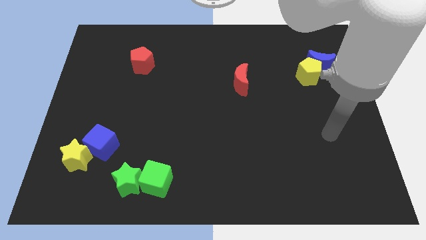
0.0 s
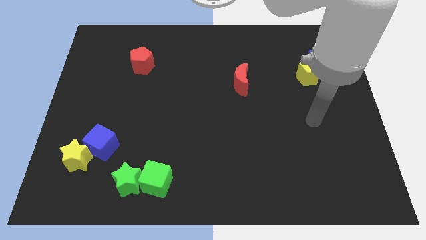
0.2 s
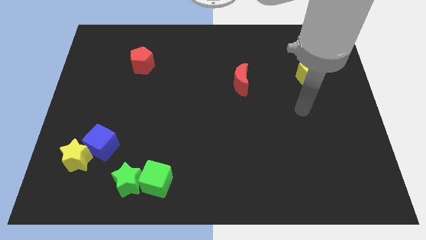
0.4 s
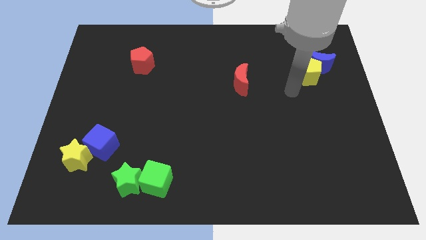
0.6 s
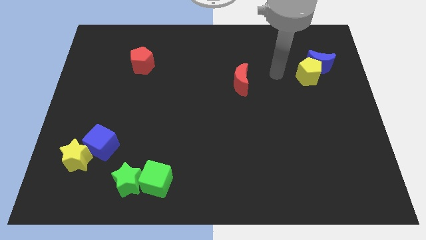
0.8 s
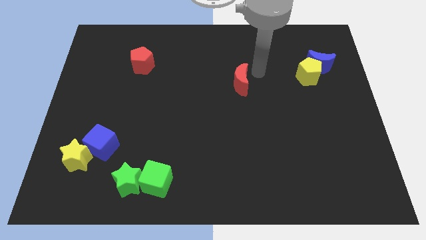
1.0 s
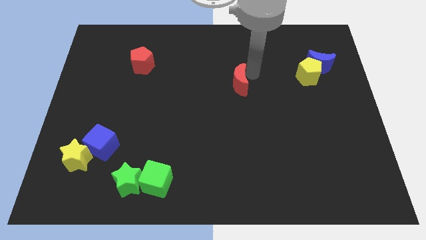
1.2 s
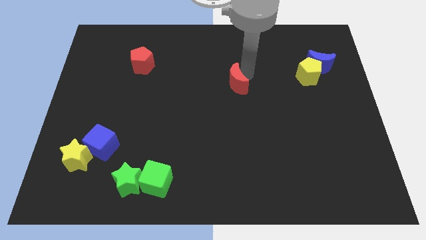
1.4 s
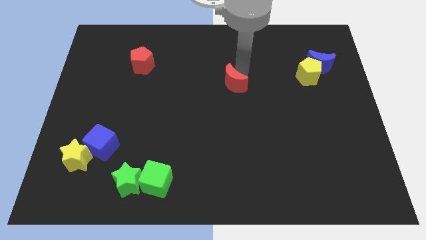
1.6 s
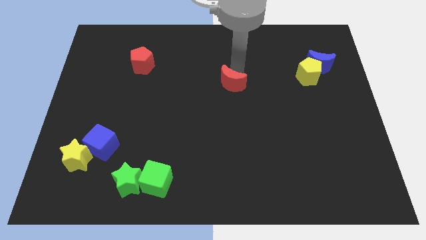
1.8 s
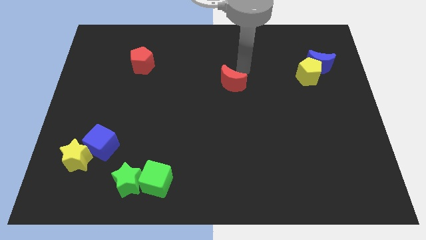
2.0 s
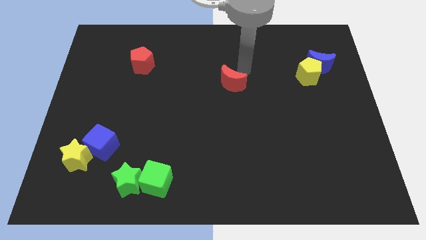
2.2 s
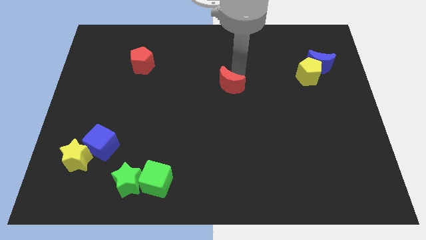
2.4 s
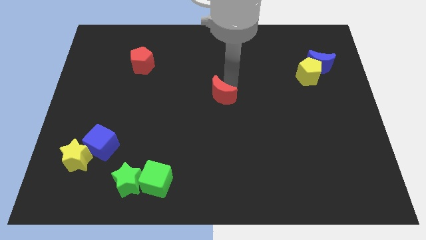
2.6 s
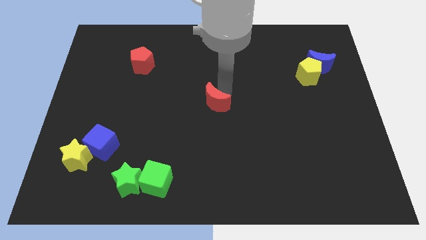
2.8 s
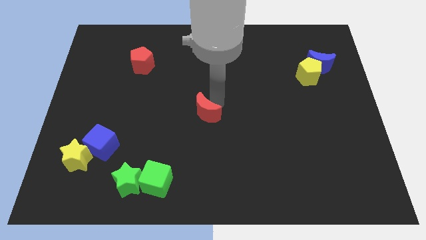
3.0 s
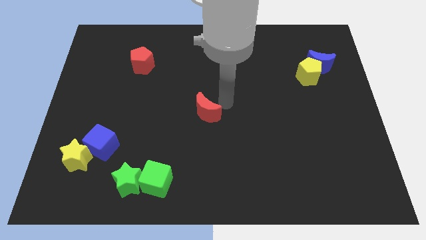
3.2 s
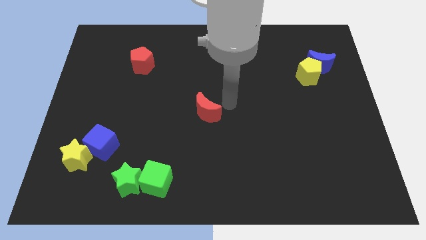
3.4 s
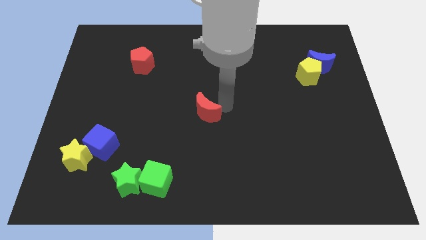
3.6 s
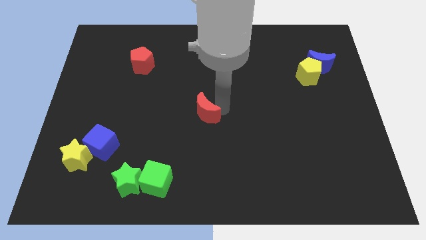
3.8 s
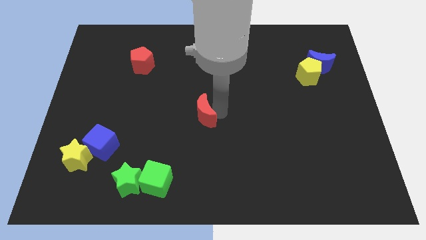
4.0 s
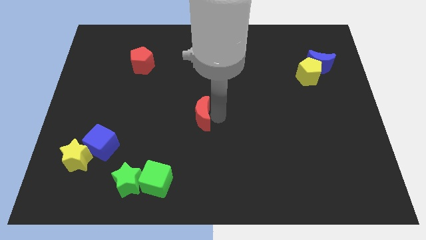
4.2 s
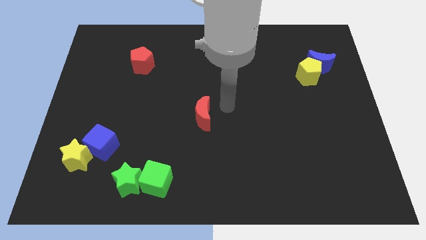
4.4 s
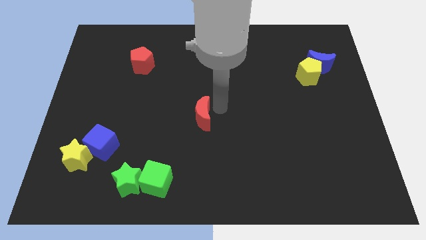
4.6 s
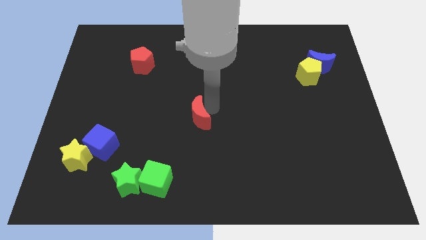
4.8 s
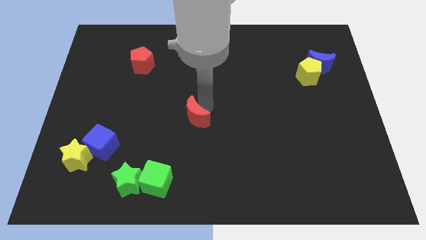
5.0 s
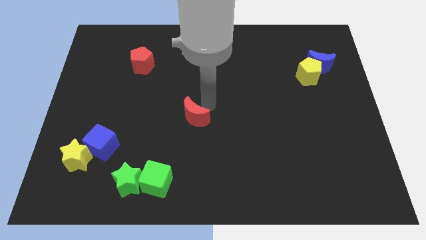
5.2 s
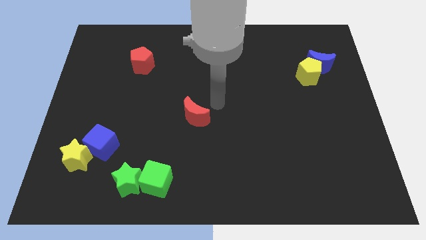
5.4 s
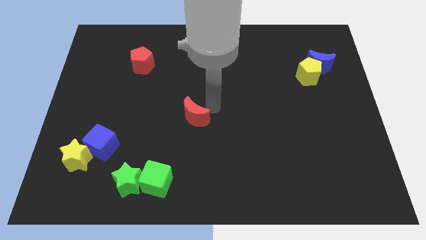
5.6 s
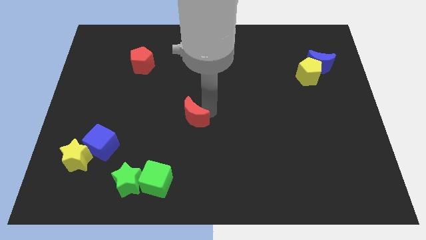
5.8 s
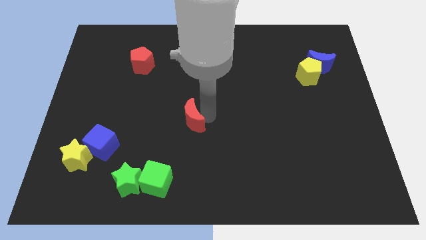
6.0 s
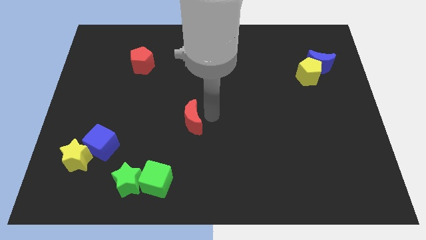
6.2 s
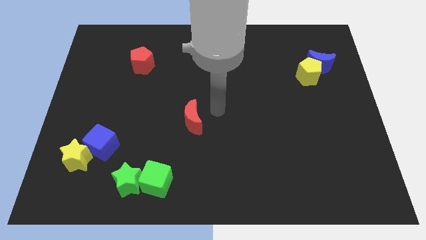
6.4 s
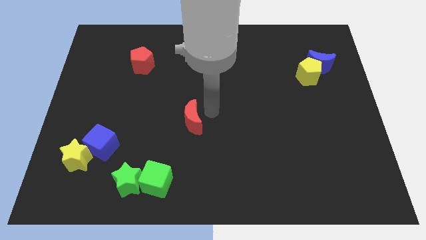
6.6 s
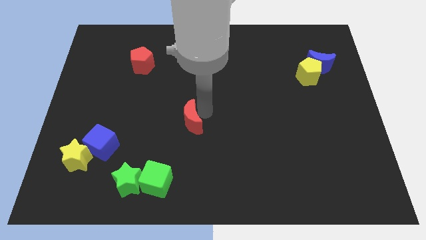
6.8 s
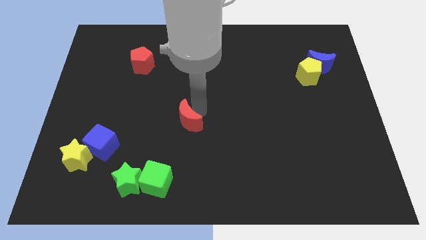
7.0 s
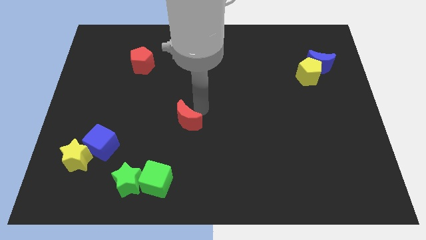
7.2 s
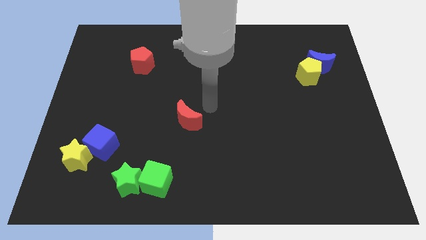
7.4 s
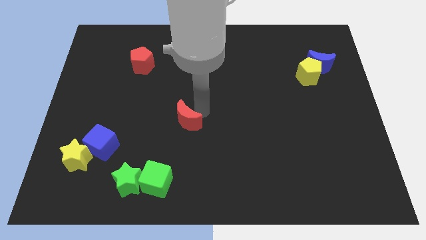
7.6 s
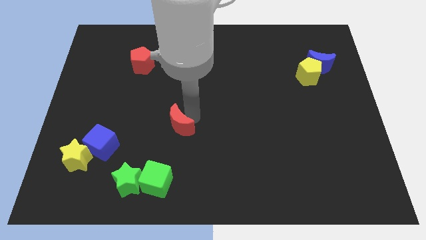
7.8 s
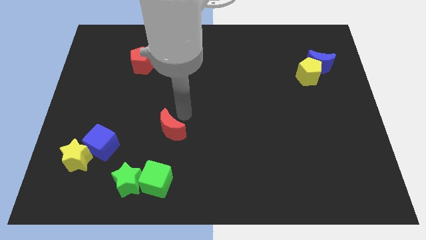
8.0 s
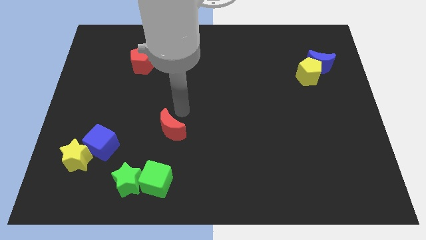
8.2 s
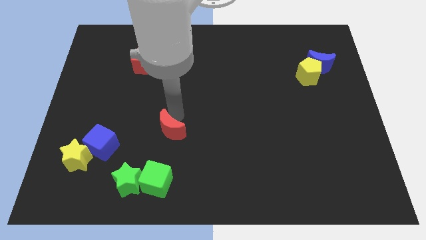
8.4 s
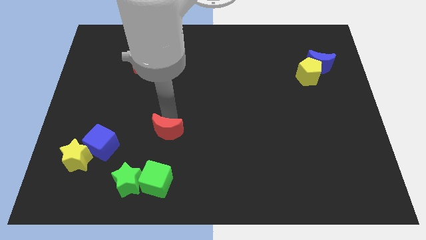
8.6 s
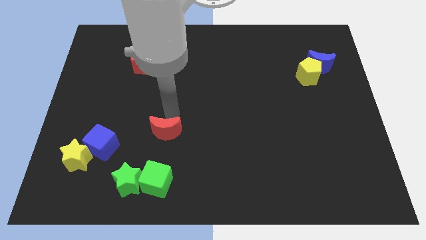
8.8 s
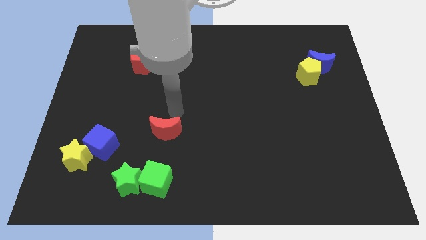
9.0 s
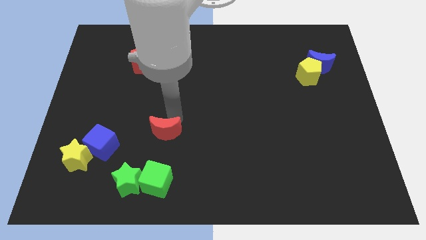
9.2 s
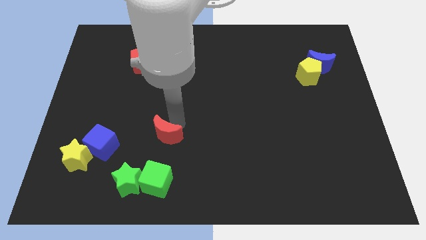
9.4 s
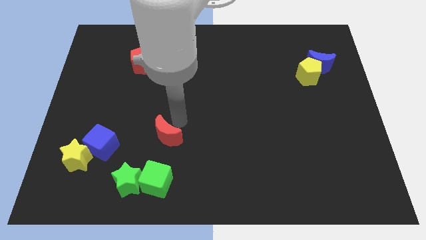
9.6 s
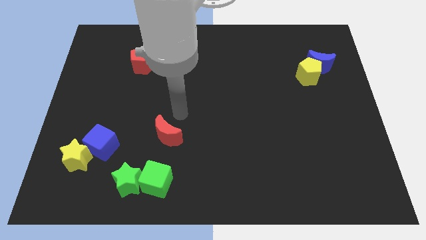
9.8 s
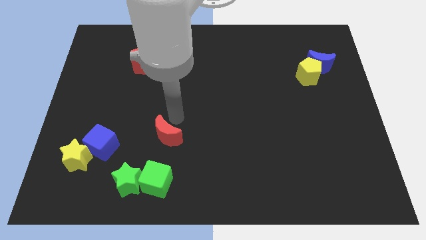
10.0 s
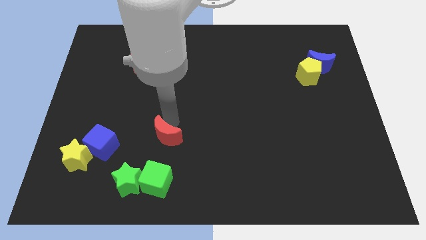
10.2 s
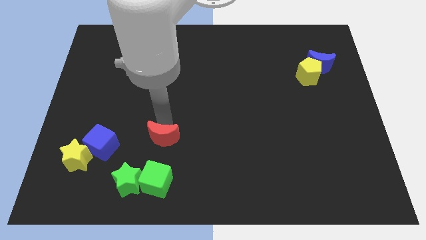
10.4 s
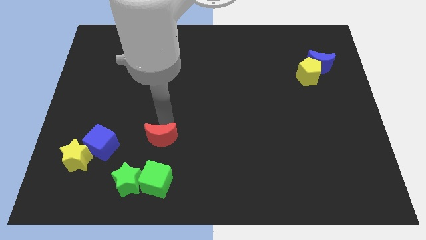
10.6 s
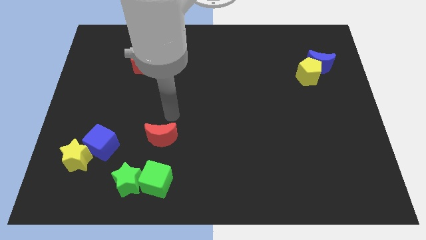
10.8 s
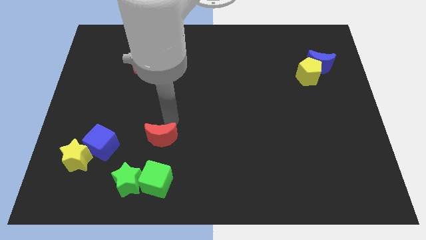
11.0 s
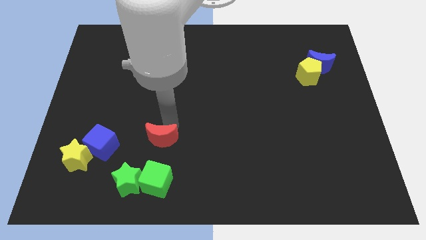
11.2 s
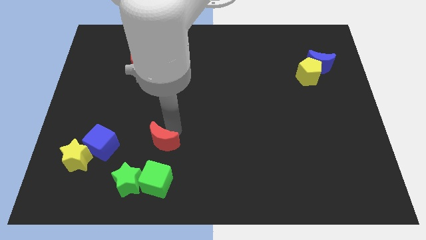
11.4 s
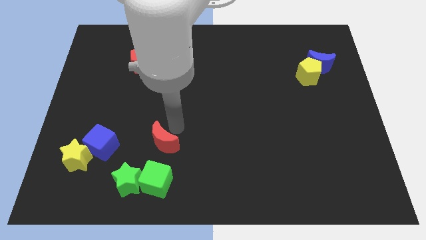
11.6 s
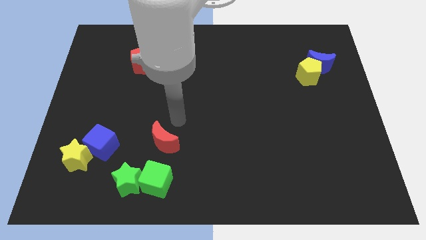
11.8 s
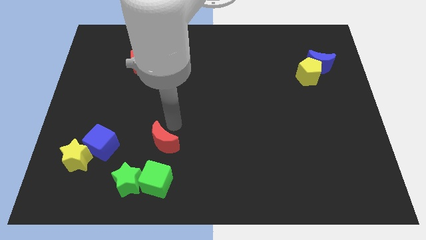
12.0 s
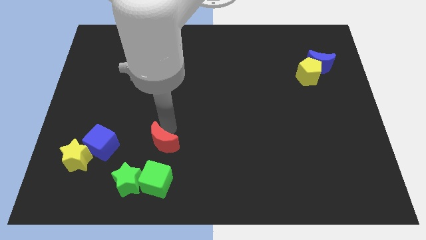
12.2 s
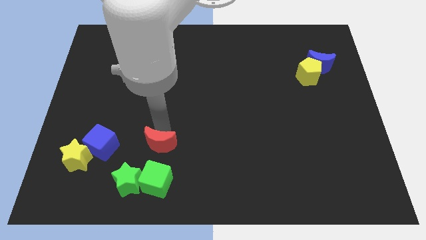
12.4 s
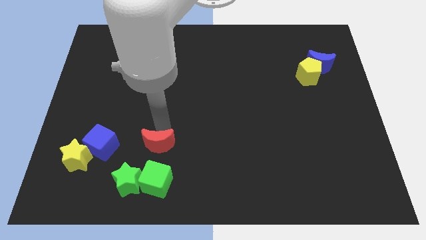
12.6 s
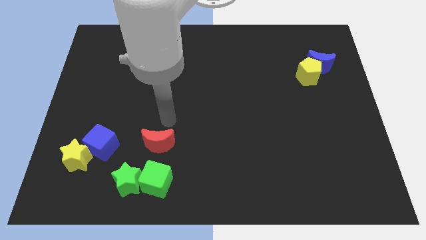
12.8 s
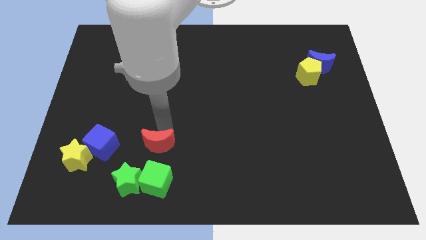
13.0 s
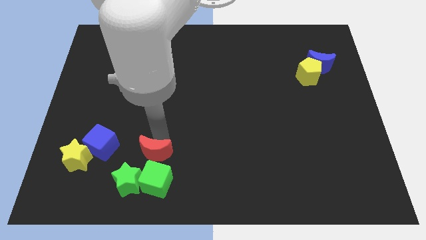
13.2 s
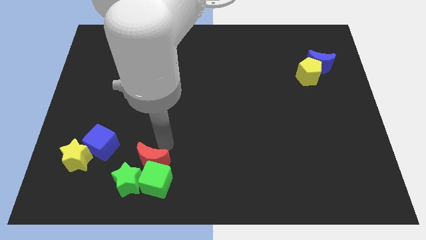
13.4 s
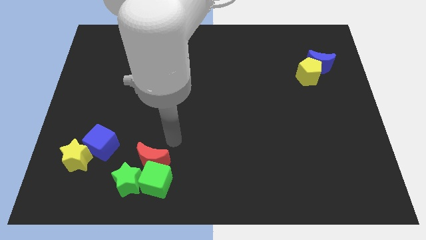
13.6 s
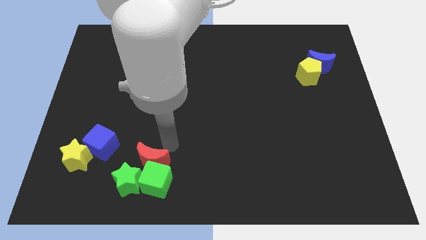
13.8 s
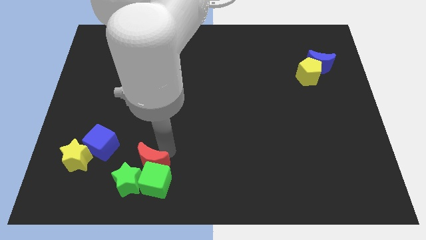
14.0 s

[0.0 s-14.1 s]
slide the red moon towards the green star

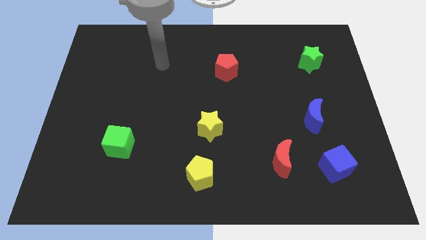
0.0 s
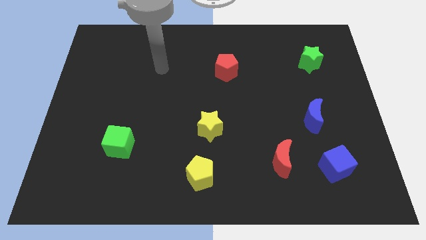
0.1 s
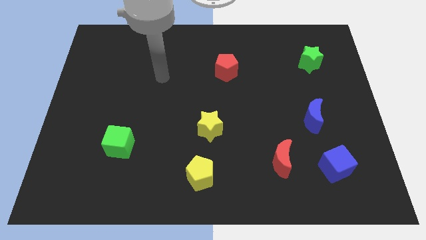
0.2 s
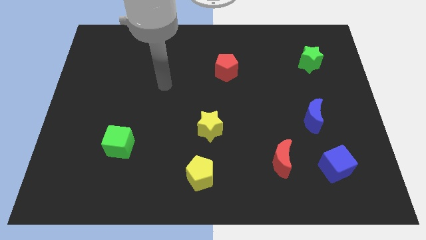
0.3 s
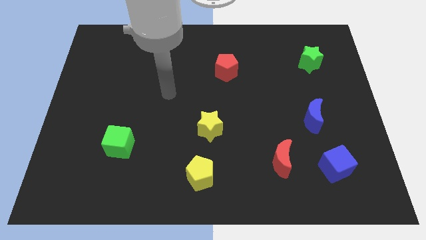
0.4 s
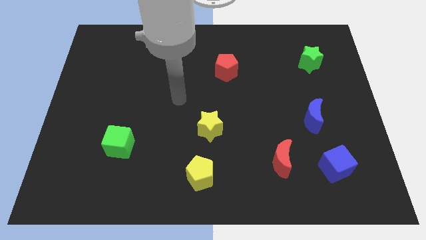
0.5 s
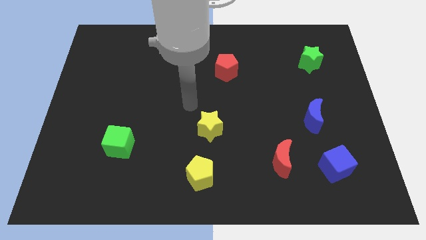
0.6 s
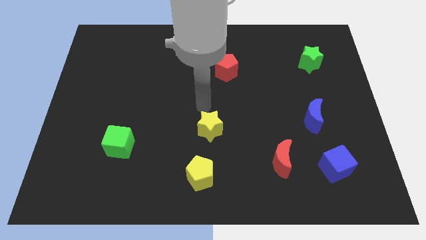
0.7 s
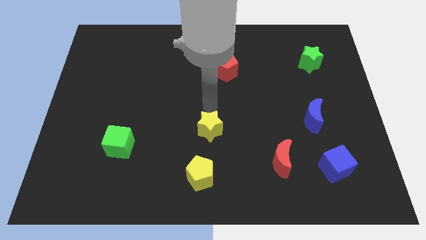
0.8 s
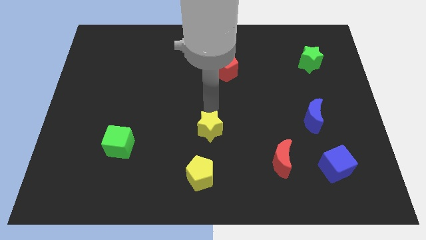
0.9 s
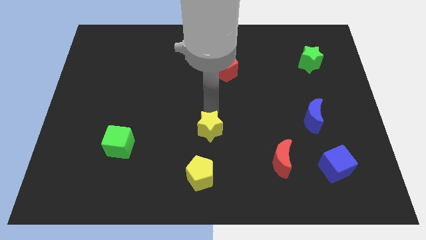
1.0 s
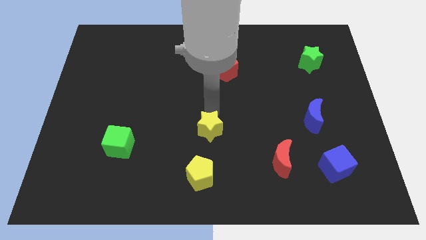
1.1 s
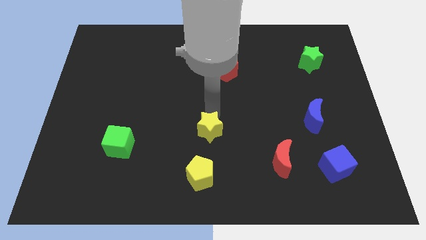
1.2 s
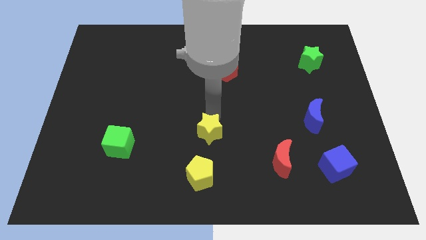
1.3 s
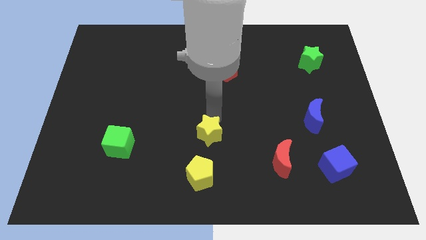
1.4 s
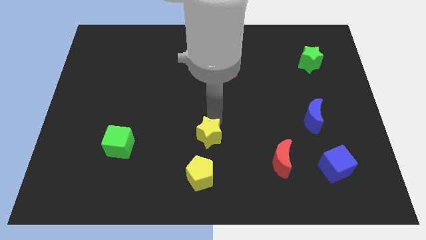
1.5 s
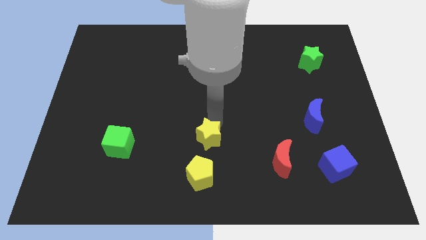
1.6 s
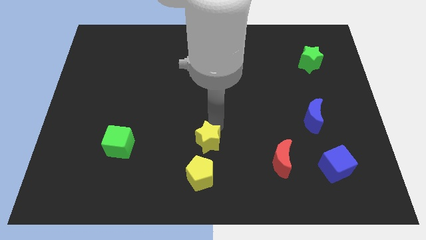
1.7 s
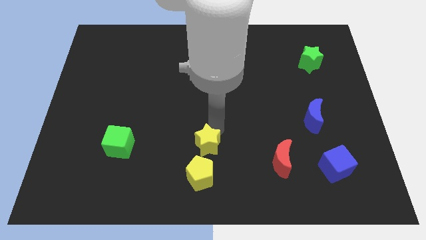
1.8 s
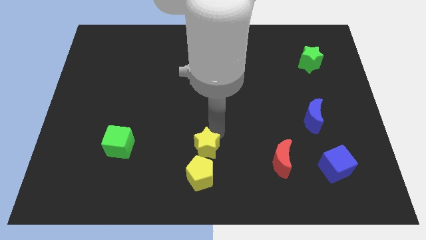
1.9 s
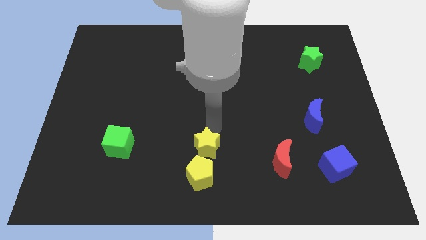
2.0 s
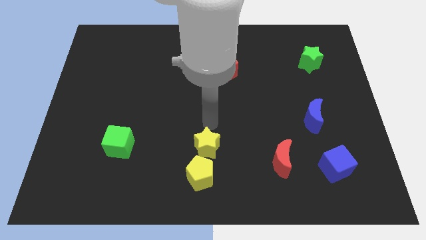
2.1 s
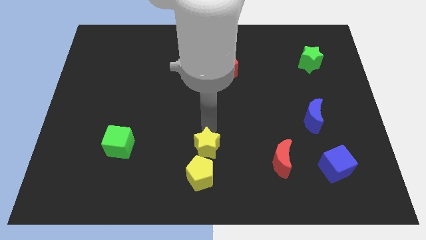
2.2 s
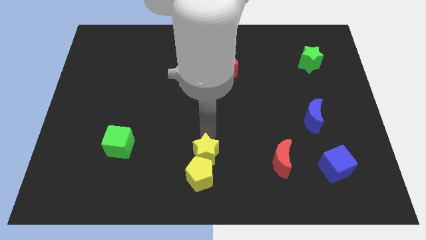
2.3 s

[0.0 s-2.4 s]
put the yellow star close to the yellow pentagon
